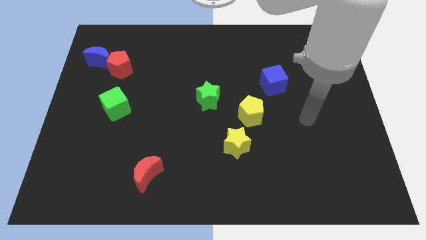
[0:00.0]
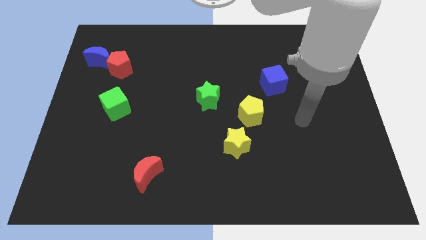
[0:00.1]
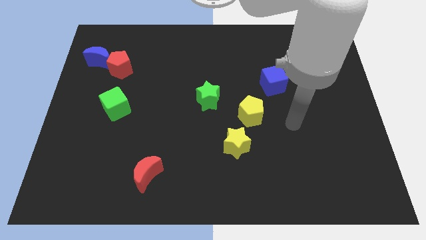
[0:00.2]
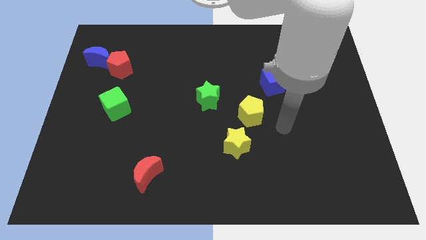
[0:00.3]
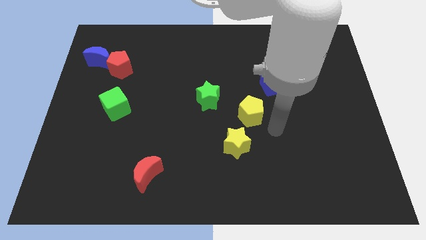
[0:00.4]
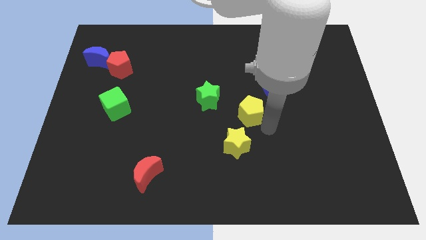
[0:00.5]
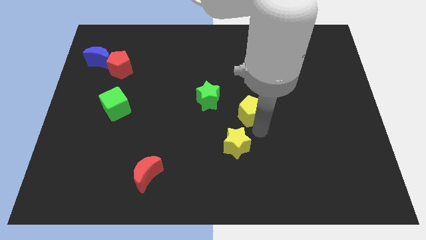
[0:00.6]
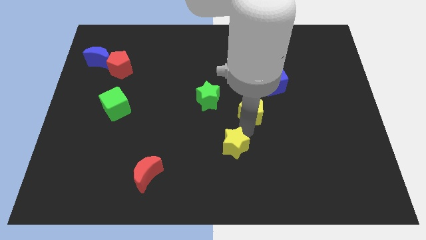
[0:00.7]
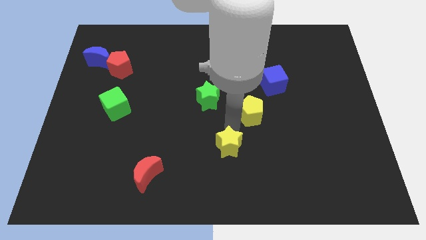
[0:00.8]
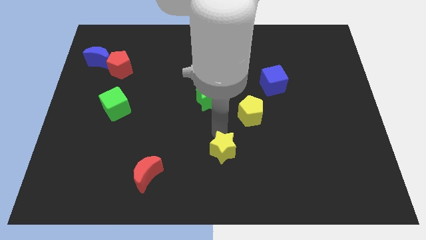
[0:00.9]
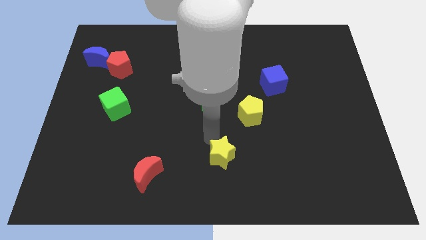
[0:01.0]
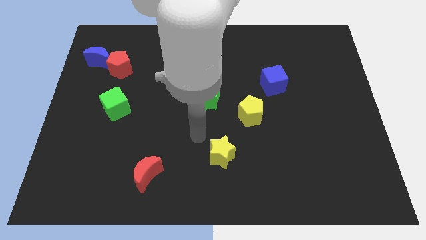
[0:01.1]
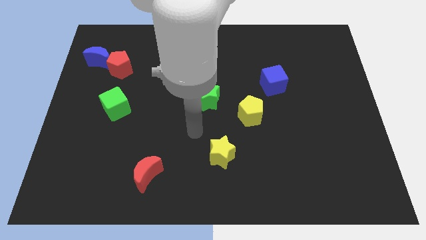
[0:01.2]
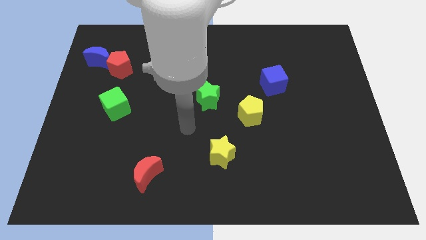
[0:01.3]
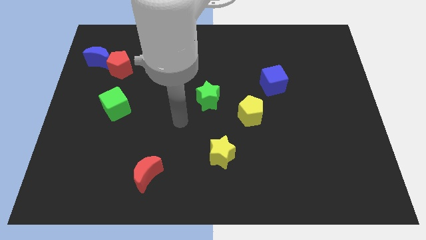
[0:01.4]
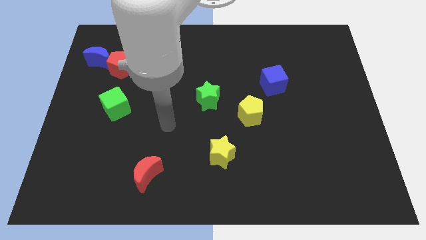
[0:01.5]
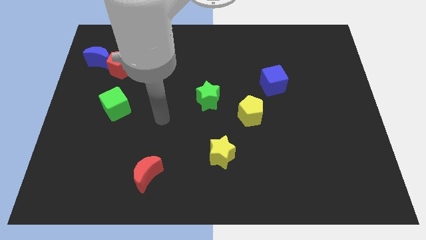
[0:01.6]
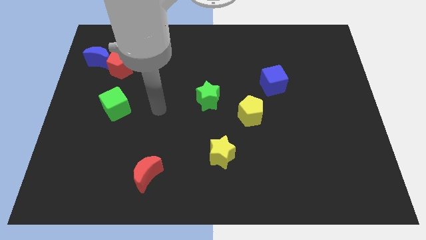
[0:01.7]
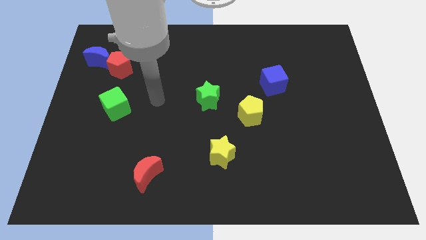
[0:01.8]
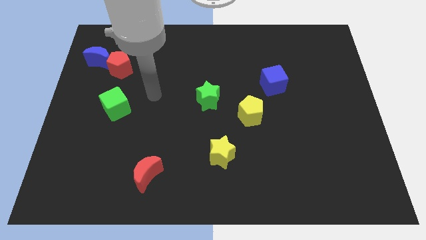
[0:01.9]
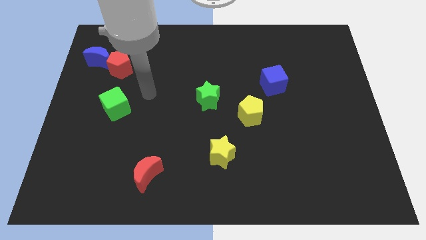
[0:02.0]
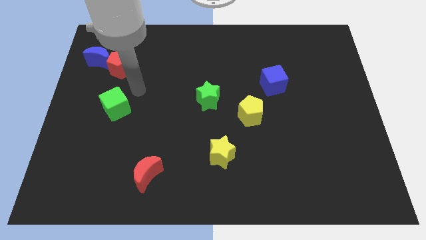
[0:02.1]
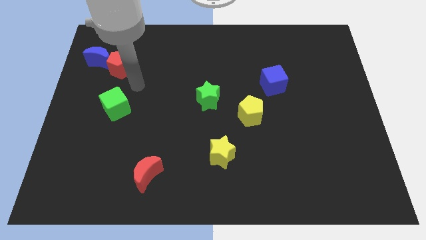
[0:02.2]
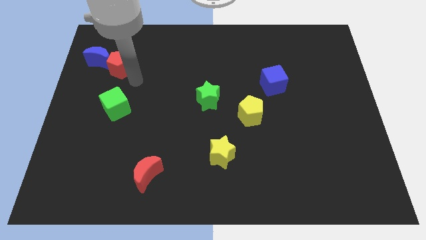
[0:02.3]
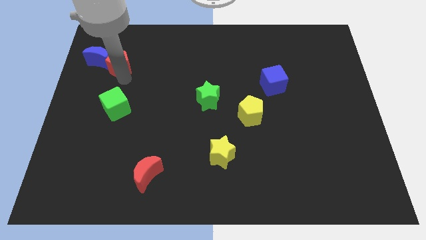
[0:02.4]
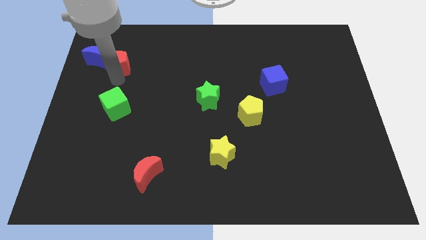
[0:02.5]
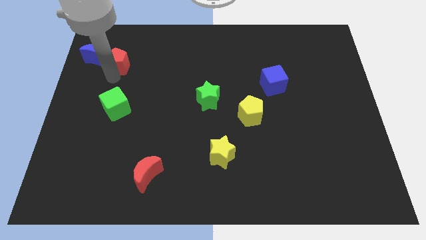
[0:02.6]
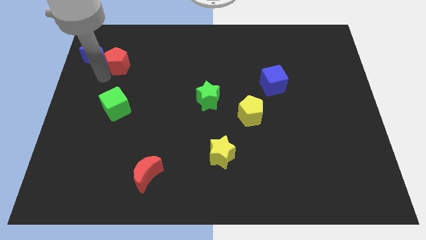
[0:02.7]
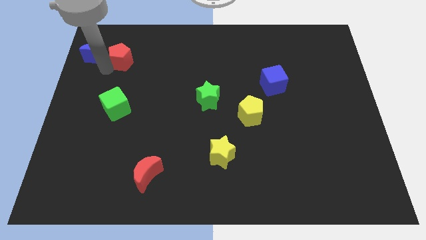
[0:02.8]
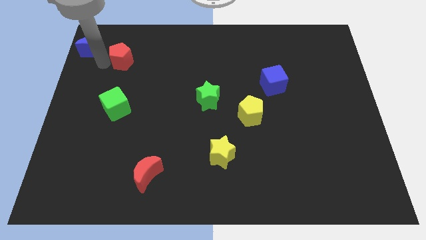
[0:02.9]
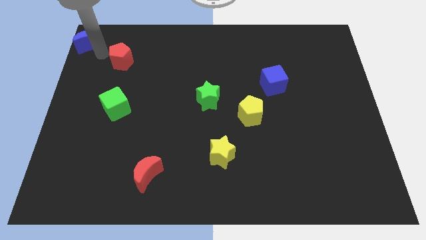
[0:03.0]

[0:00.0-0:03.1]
separate the red pentagon from the blue moon

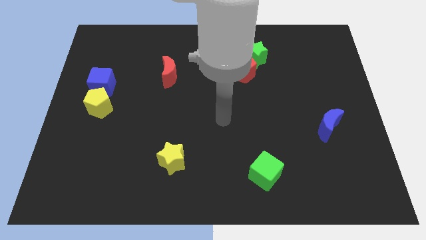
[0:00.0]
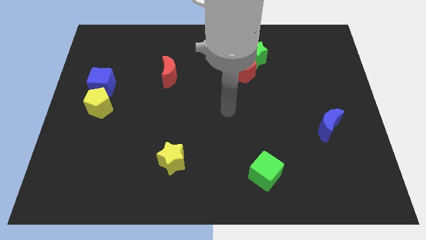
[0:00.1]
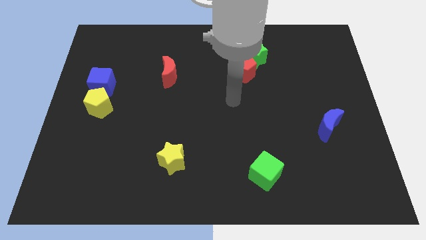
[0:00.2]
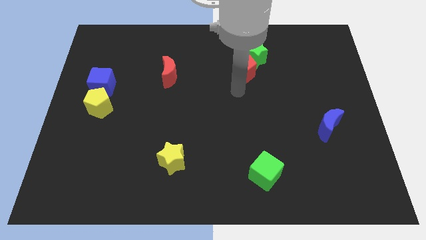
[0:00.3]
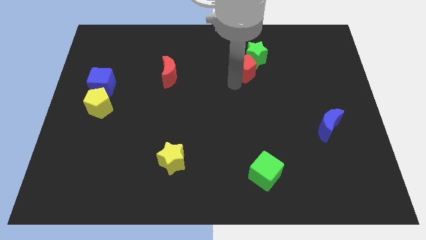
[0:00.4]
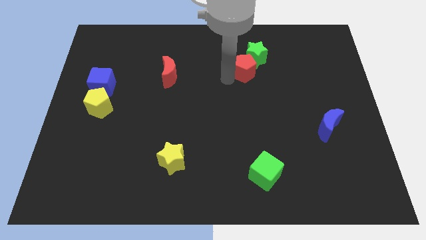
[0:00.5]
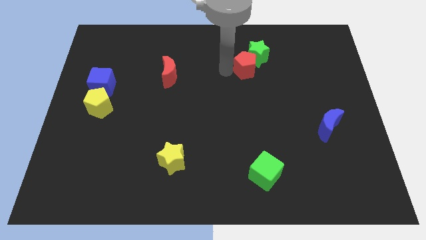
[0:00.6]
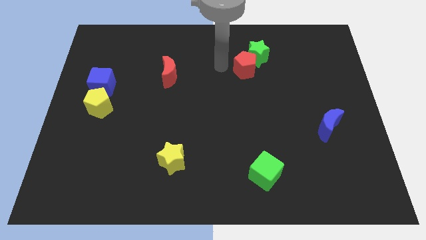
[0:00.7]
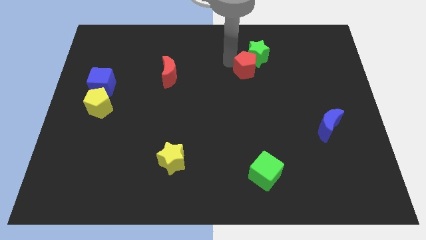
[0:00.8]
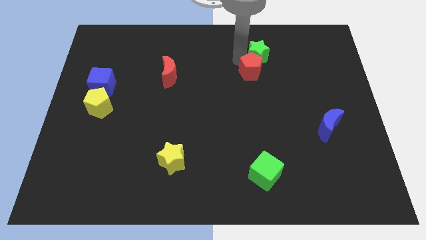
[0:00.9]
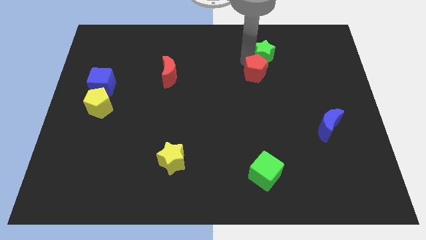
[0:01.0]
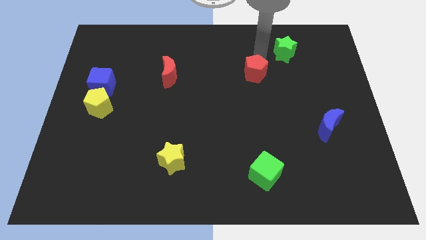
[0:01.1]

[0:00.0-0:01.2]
pull the red pentagon apart from the green star

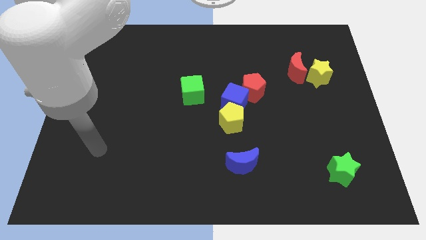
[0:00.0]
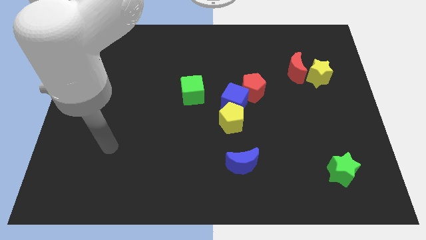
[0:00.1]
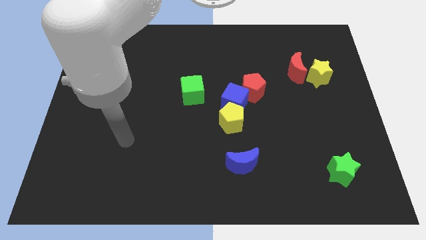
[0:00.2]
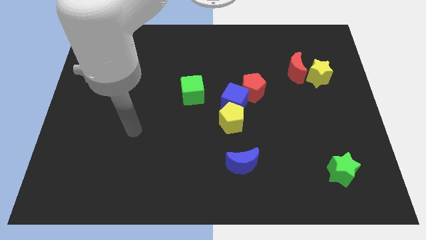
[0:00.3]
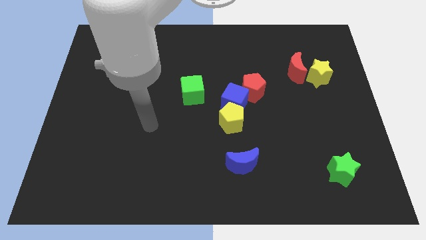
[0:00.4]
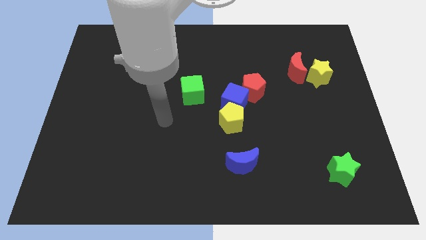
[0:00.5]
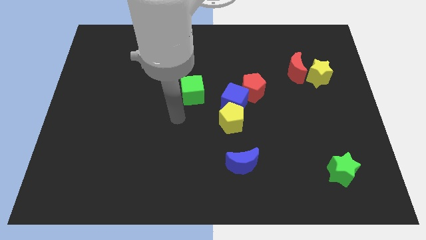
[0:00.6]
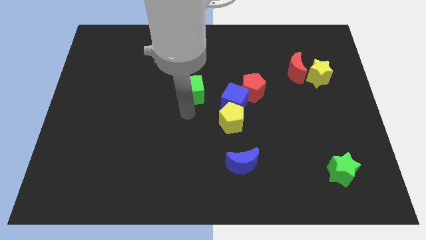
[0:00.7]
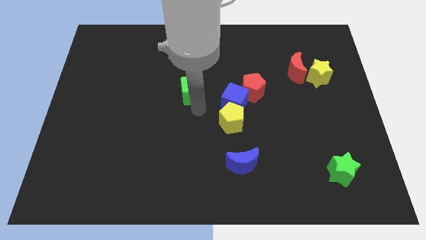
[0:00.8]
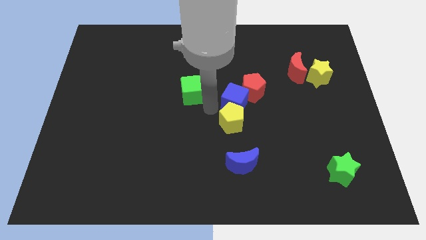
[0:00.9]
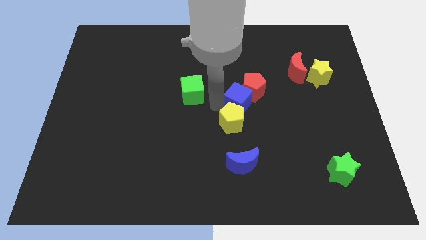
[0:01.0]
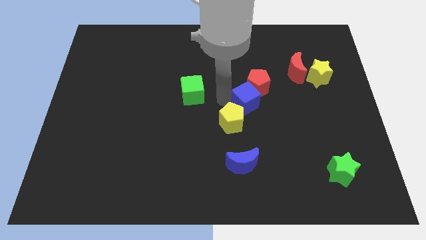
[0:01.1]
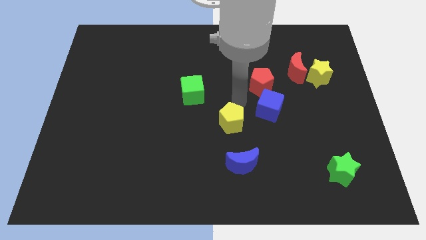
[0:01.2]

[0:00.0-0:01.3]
move the yellow pentagon away from the blue cube

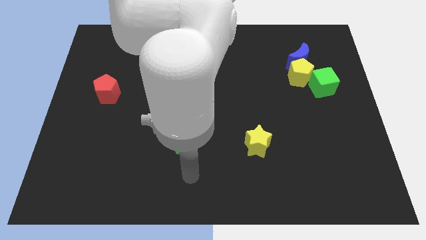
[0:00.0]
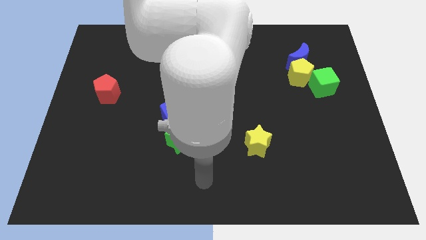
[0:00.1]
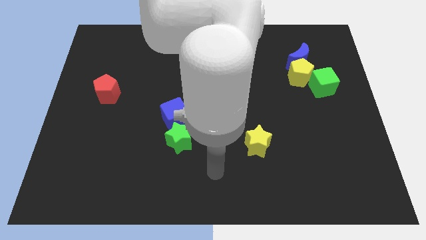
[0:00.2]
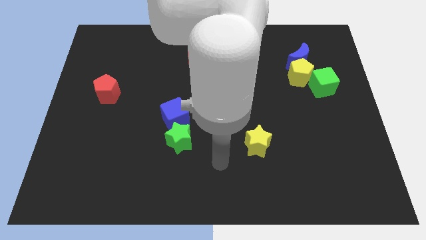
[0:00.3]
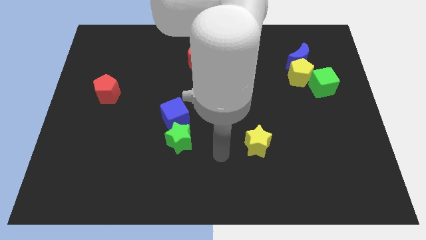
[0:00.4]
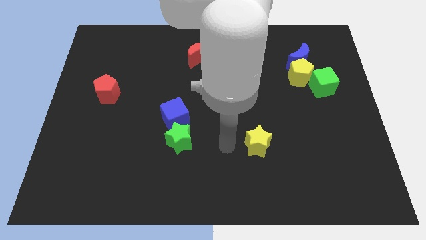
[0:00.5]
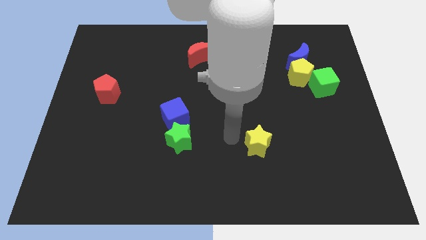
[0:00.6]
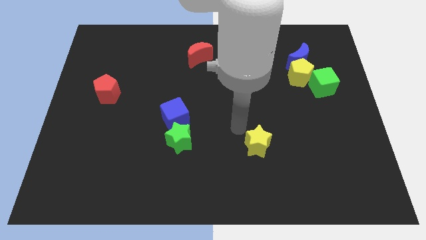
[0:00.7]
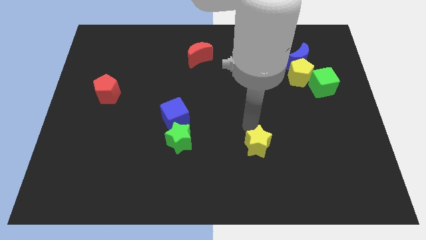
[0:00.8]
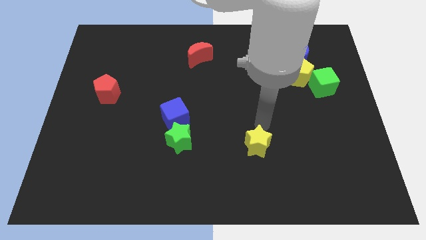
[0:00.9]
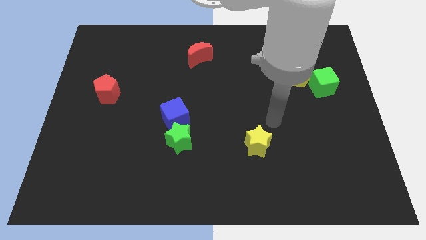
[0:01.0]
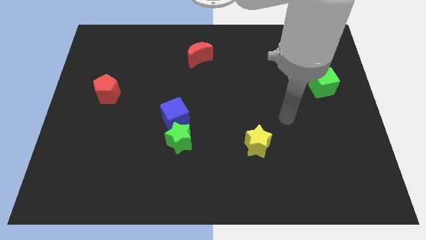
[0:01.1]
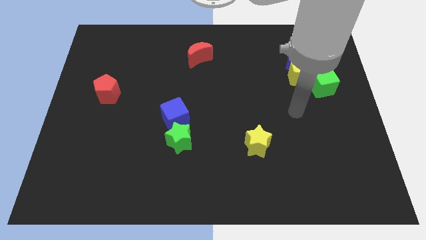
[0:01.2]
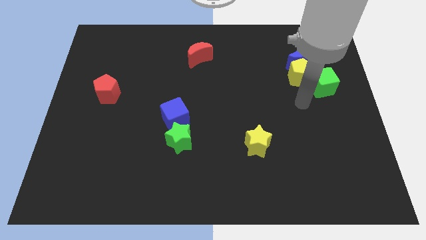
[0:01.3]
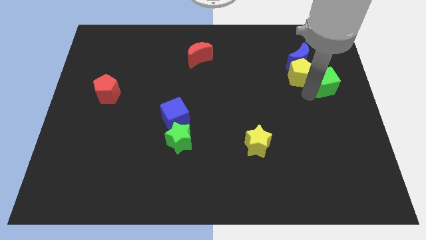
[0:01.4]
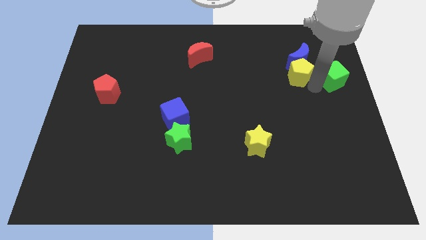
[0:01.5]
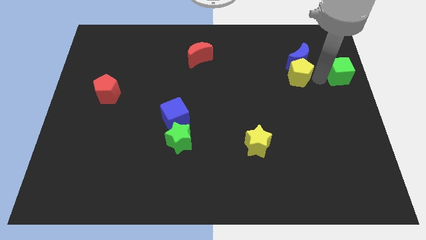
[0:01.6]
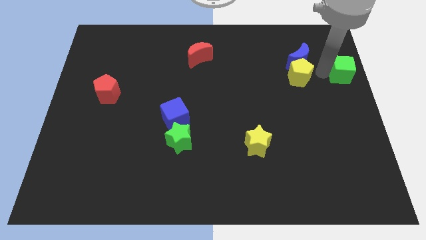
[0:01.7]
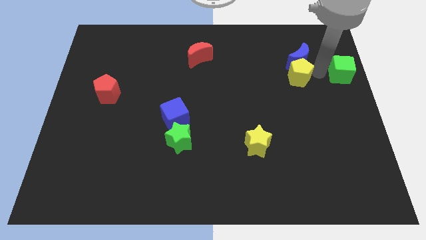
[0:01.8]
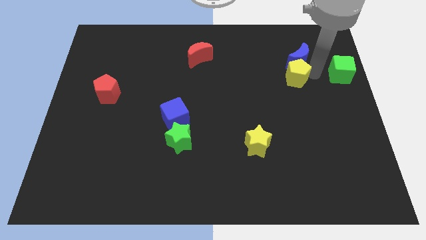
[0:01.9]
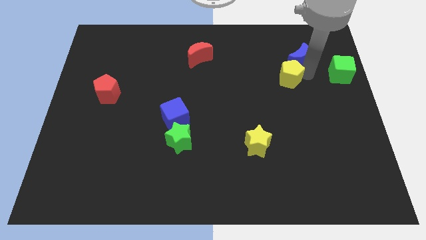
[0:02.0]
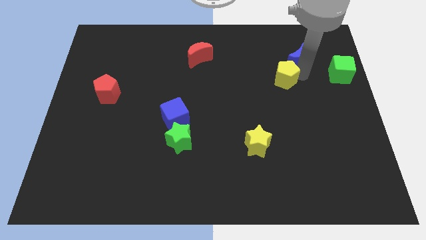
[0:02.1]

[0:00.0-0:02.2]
pull the yellow pentagon apart from the blue moon and green cube

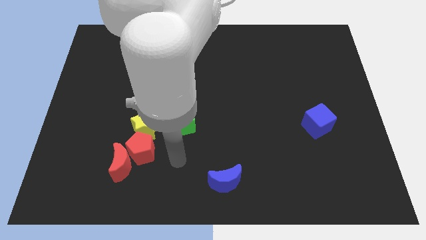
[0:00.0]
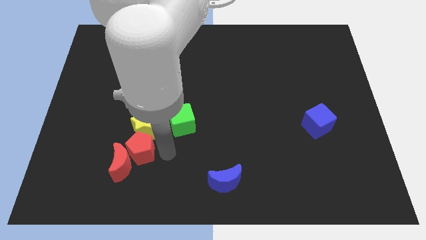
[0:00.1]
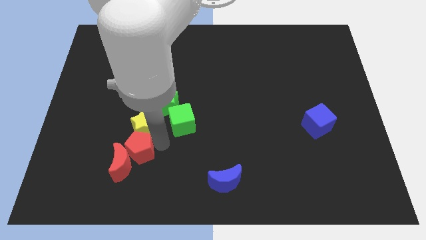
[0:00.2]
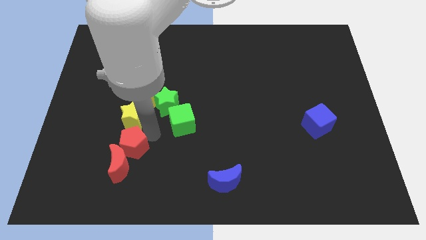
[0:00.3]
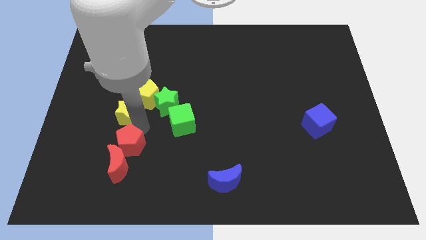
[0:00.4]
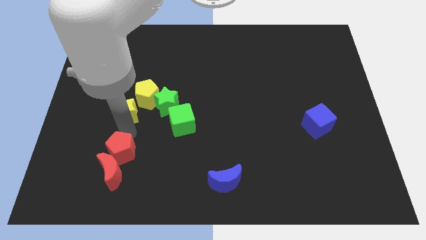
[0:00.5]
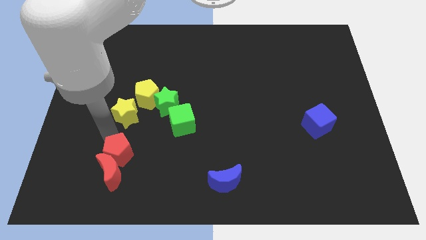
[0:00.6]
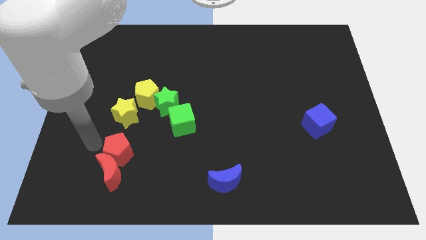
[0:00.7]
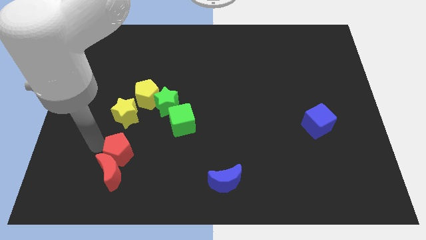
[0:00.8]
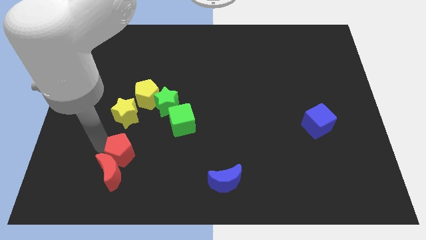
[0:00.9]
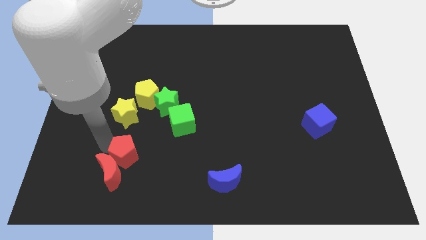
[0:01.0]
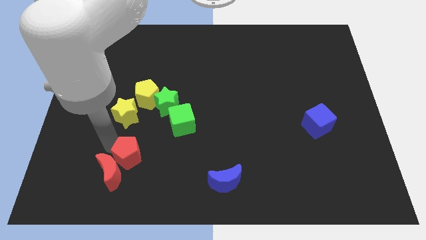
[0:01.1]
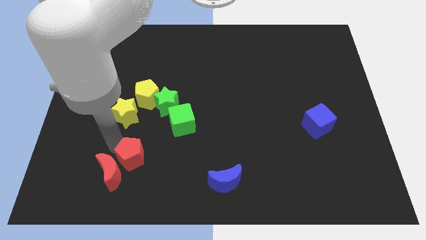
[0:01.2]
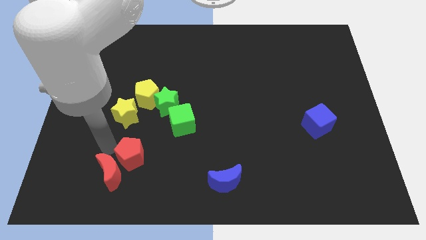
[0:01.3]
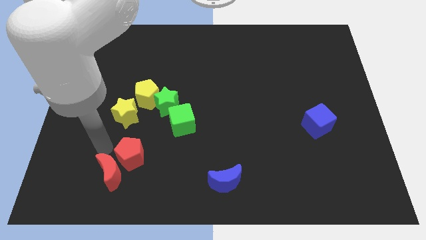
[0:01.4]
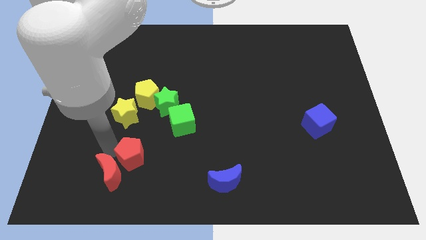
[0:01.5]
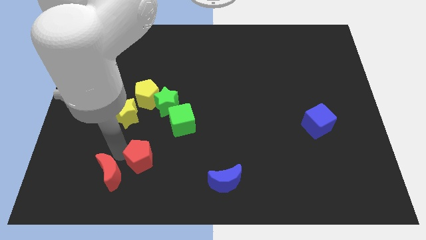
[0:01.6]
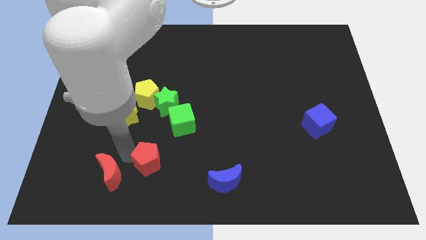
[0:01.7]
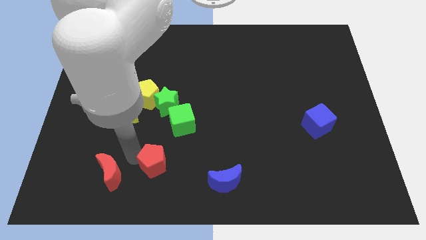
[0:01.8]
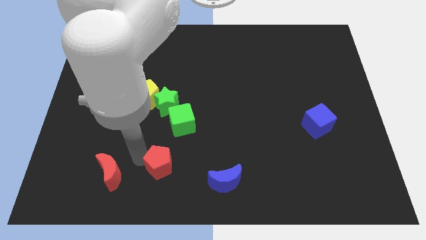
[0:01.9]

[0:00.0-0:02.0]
separate the red pentagon from the red moon and yellow star
